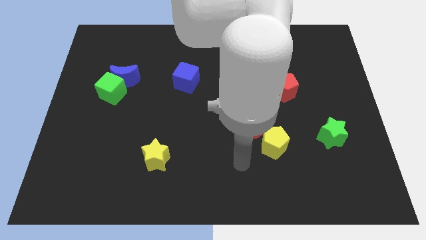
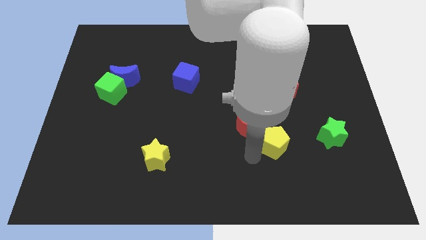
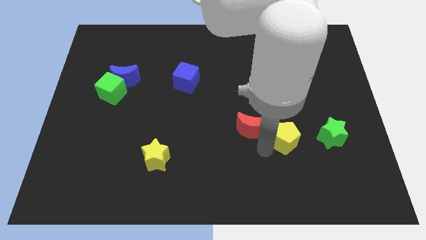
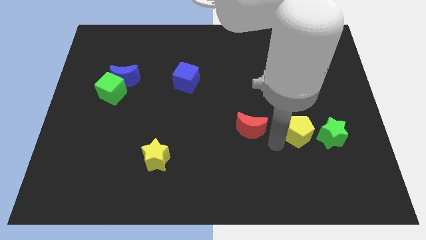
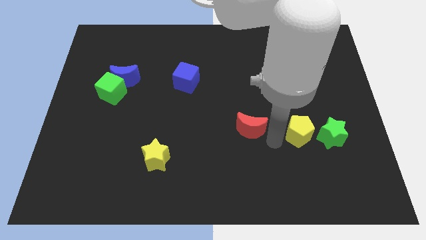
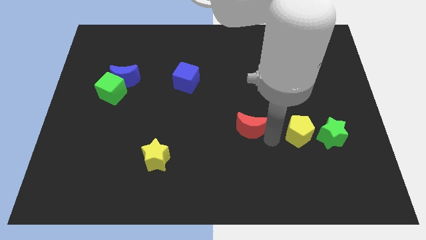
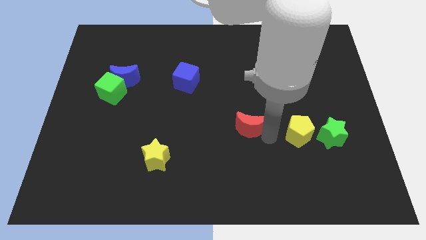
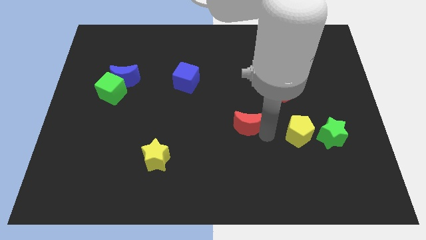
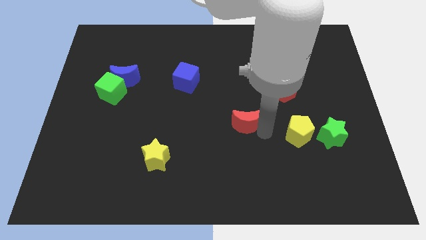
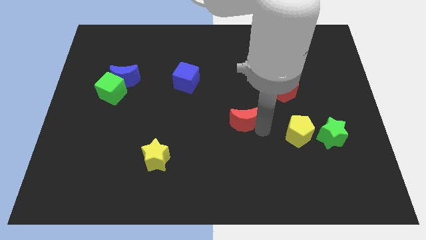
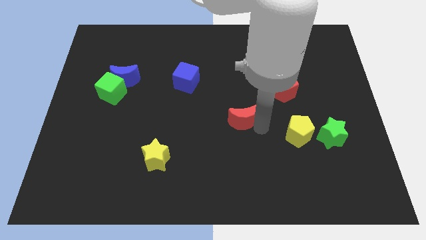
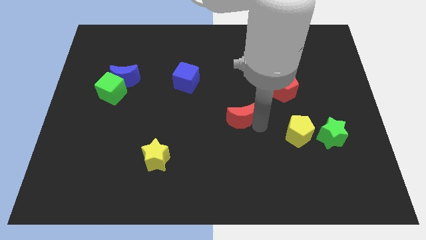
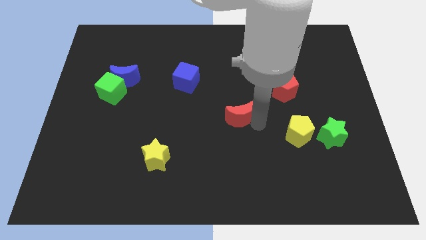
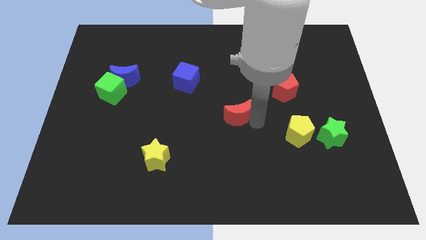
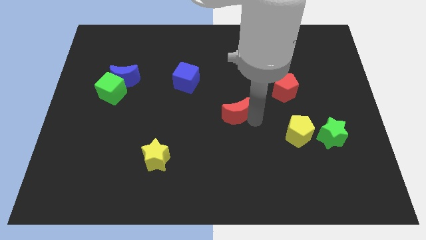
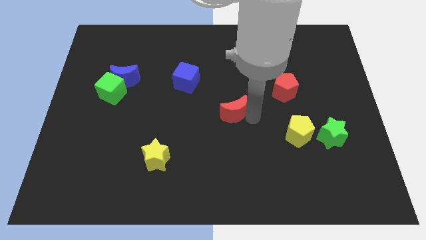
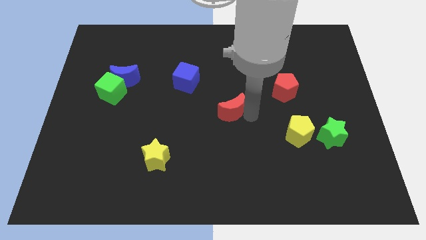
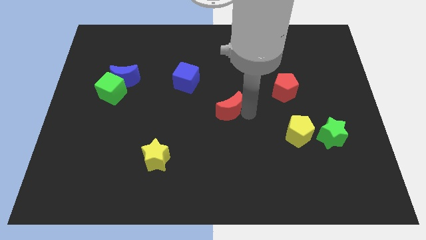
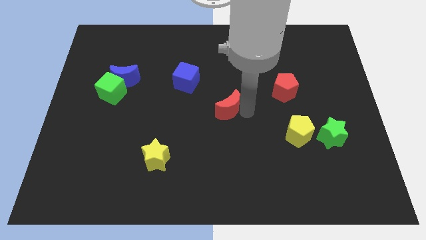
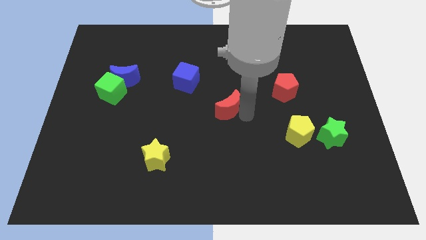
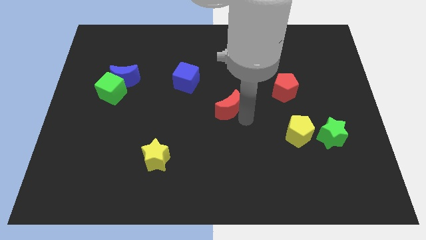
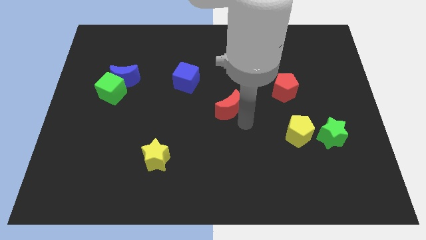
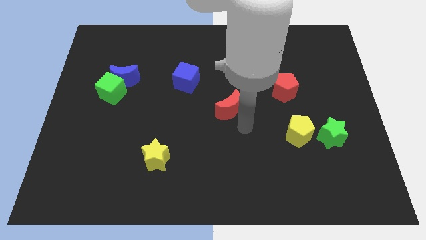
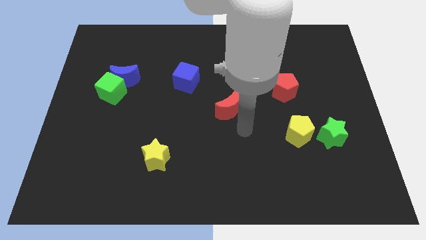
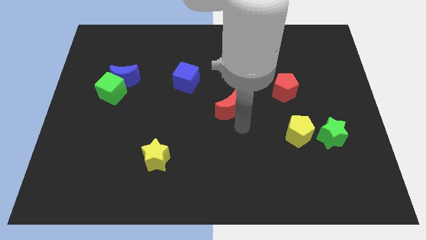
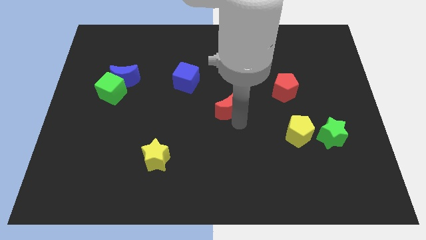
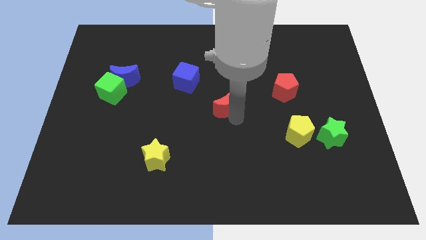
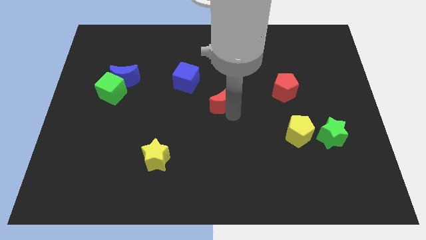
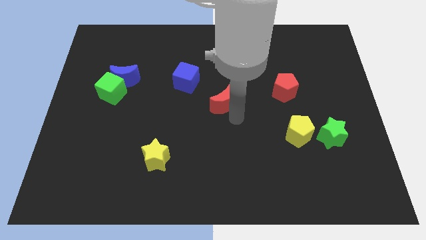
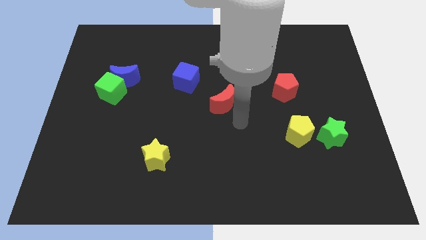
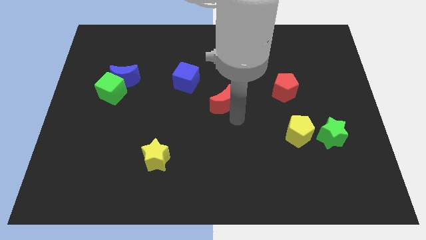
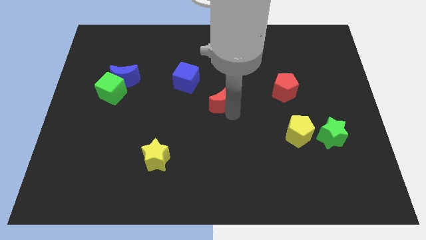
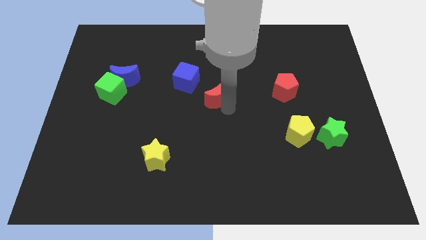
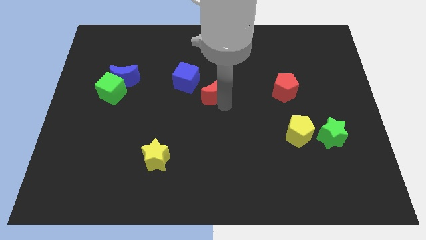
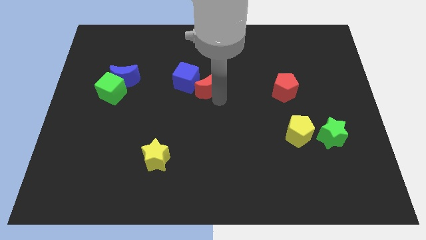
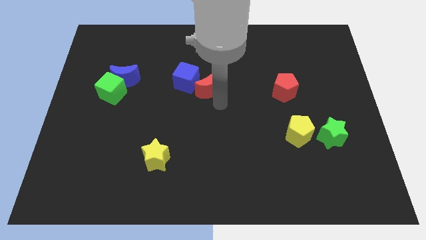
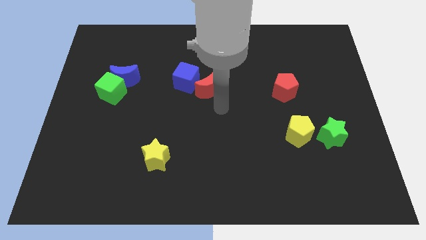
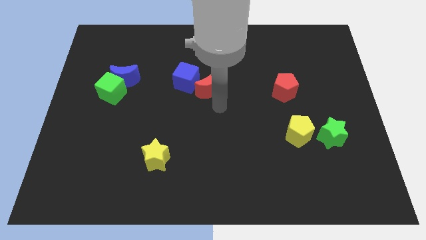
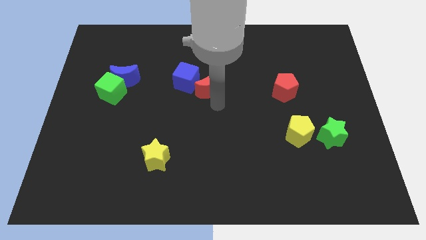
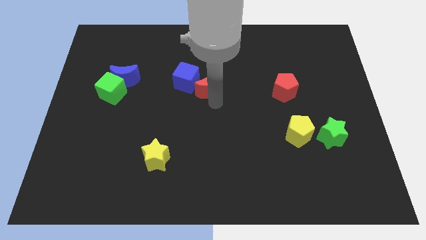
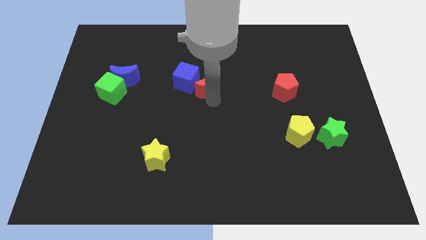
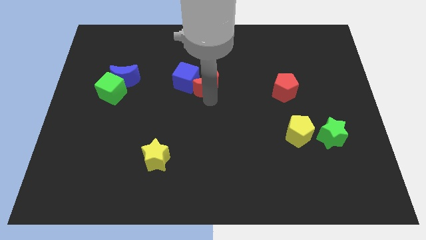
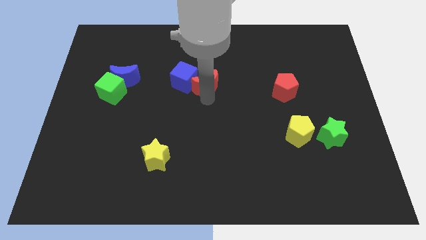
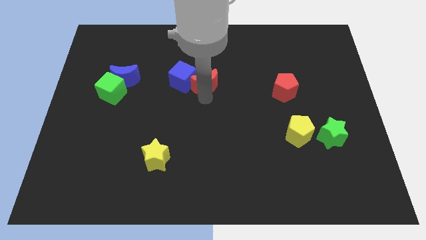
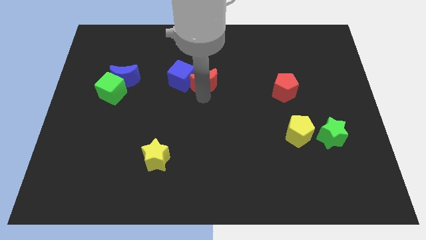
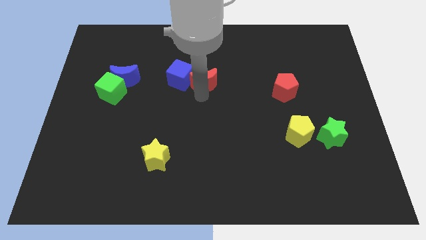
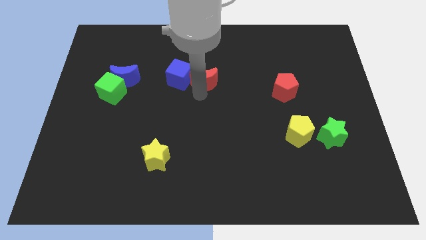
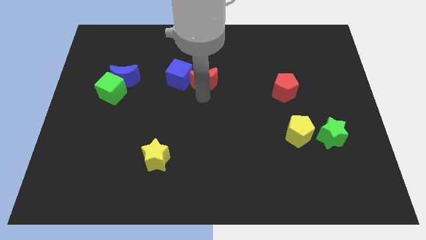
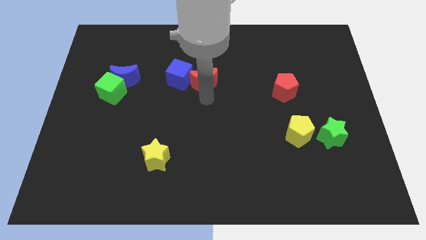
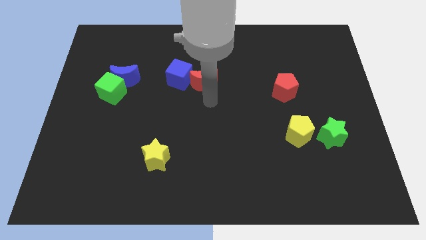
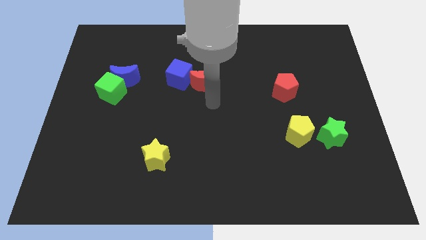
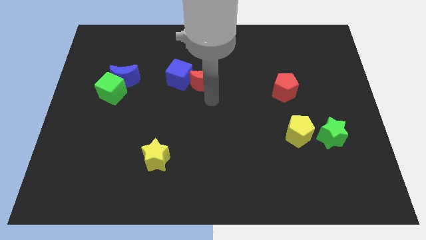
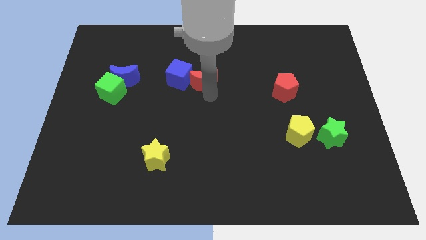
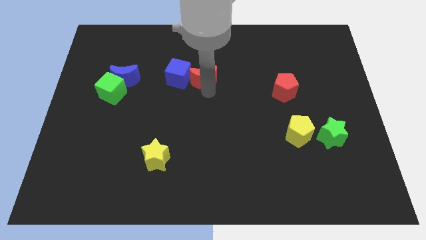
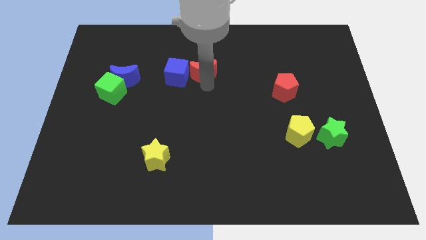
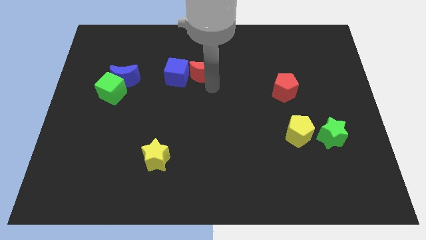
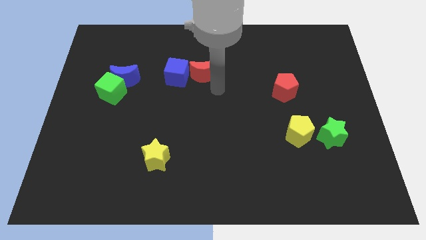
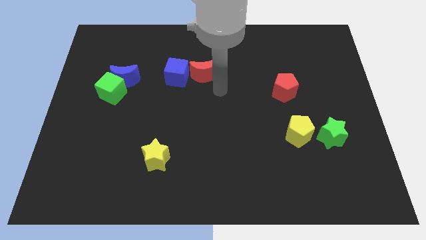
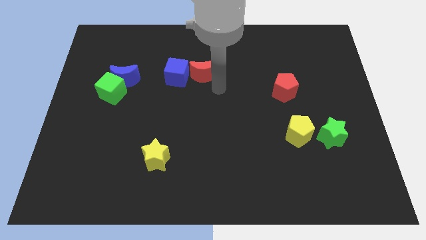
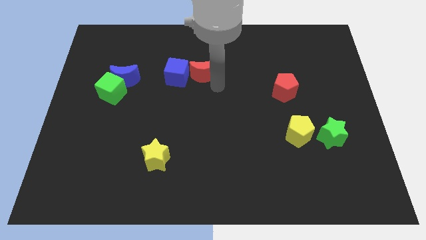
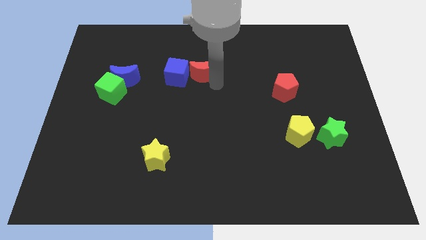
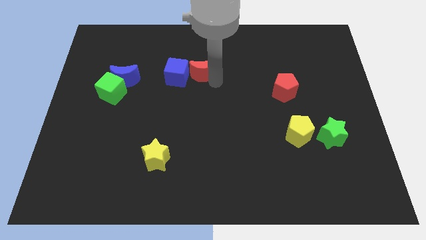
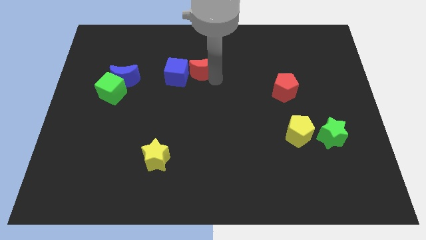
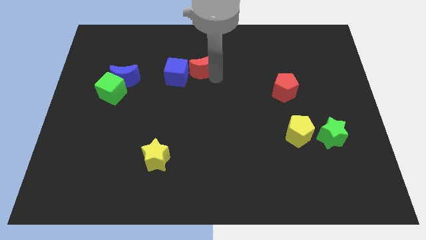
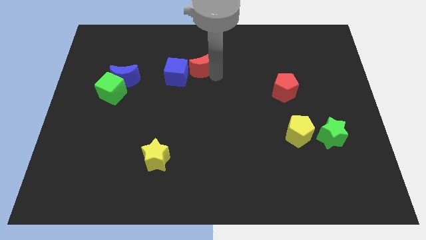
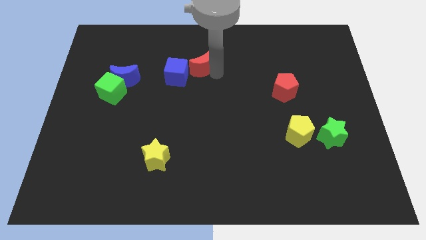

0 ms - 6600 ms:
move the red moon diagonally up and left

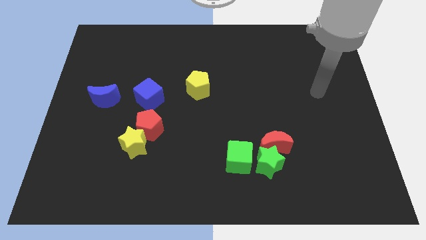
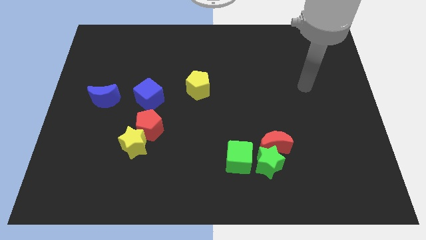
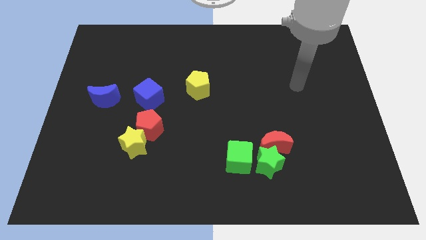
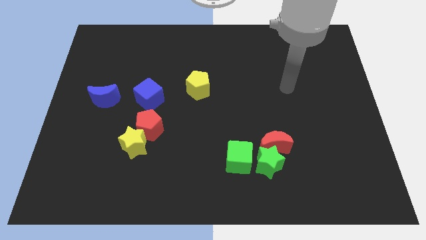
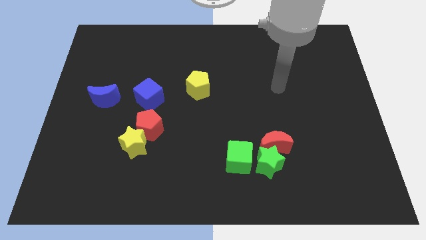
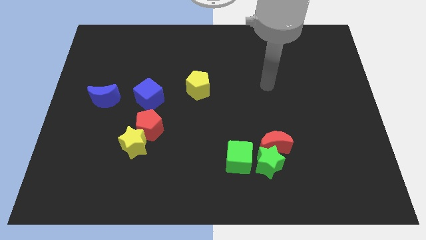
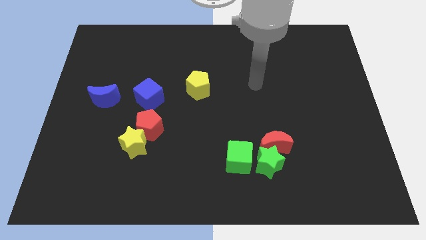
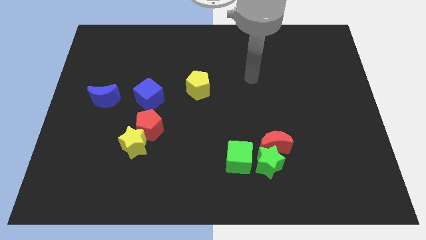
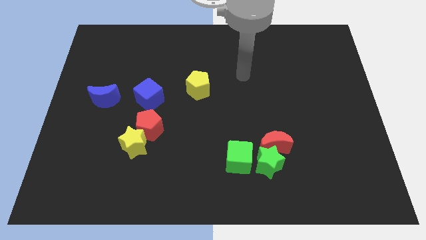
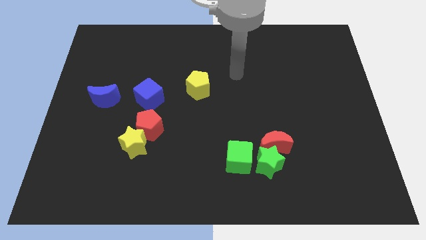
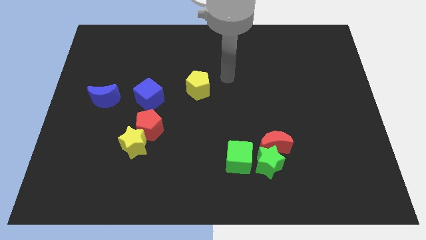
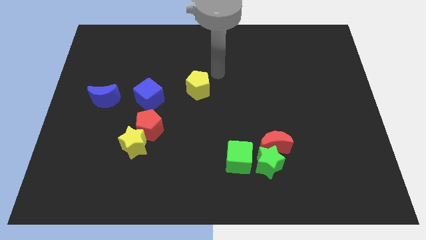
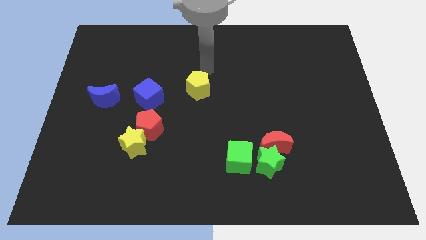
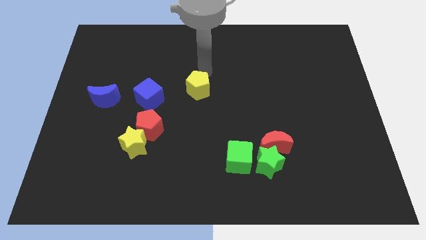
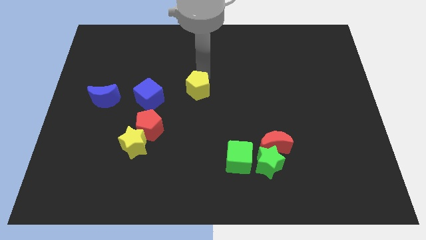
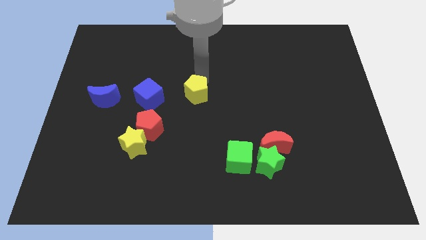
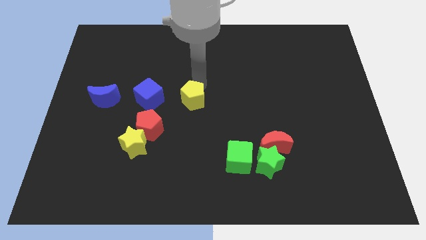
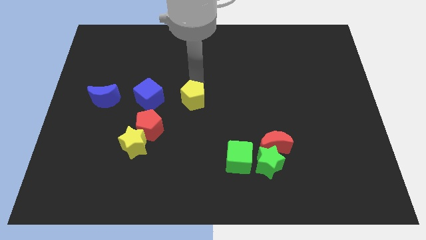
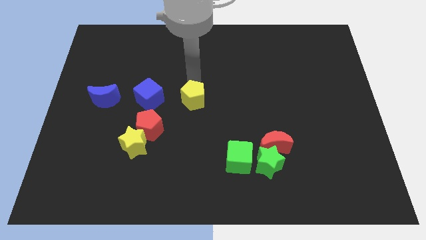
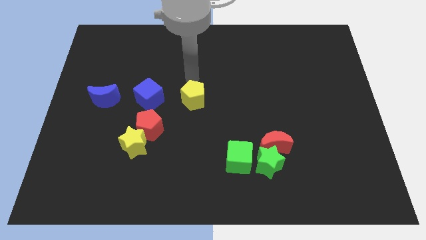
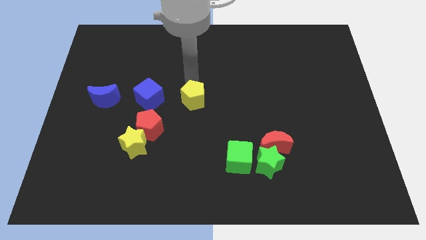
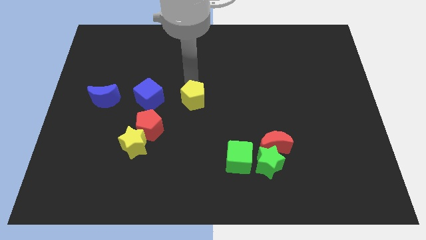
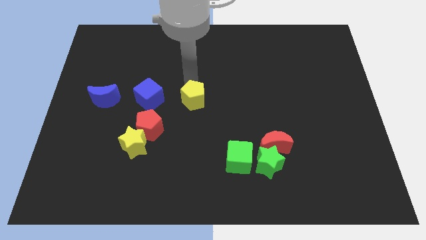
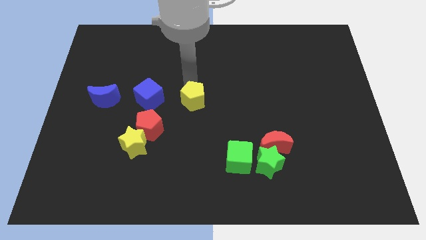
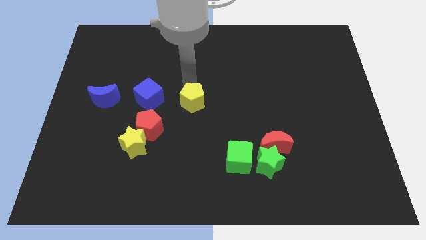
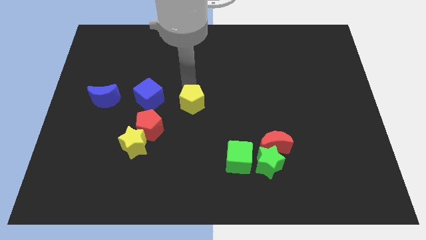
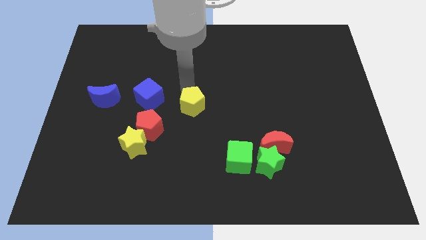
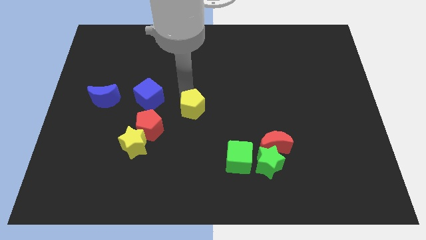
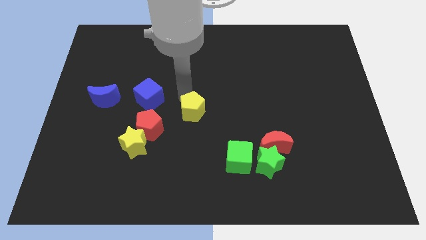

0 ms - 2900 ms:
move the yellow pentagon a little downwards
